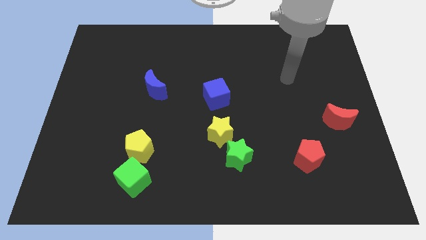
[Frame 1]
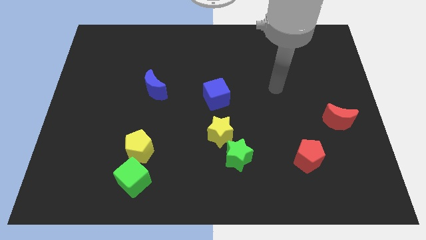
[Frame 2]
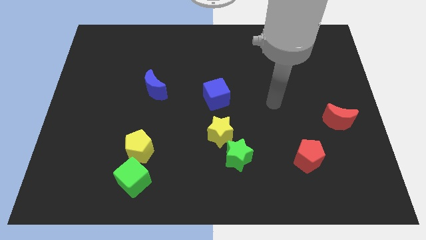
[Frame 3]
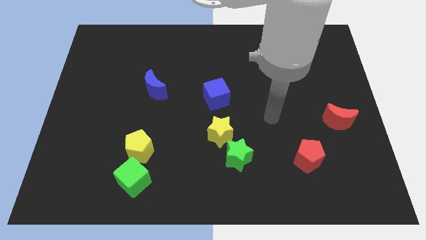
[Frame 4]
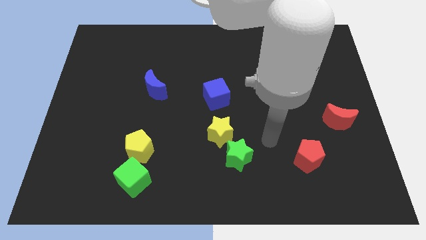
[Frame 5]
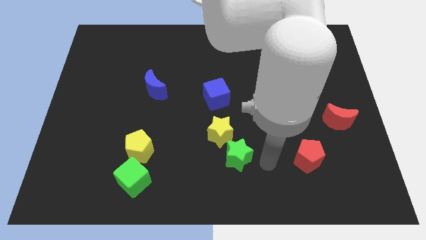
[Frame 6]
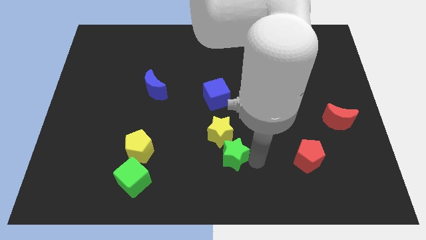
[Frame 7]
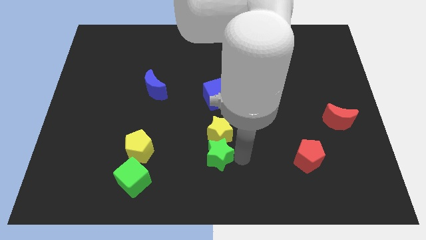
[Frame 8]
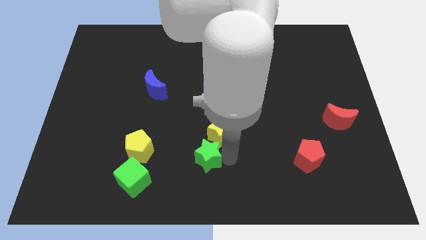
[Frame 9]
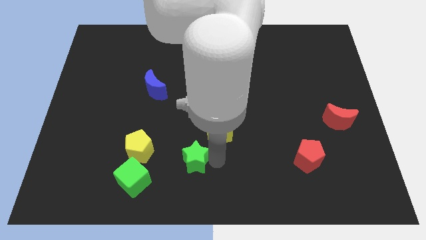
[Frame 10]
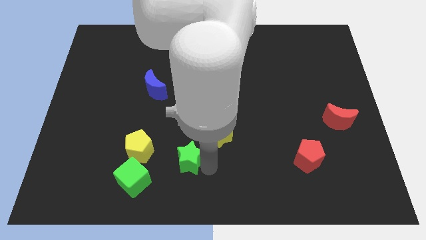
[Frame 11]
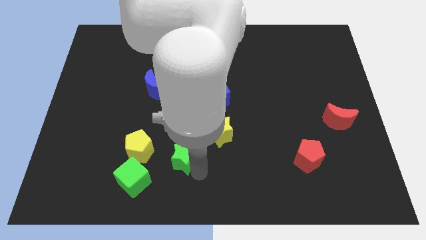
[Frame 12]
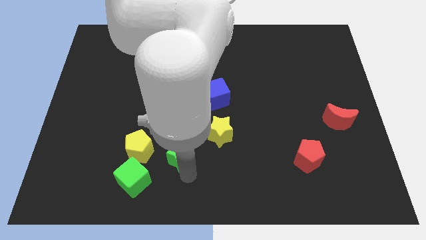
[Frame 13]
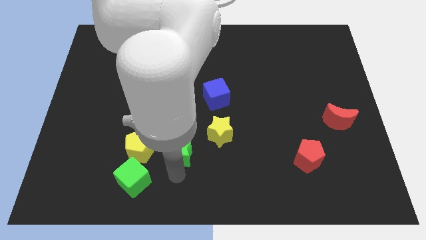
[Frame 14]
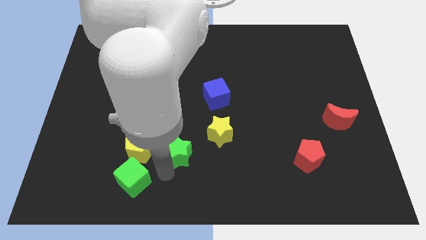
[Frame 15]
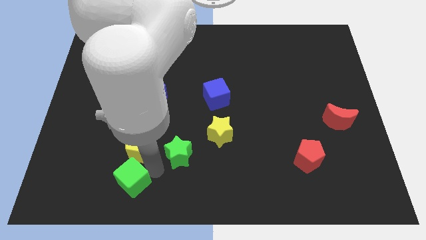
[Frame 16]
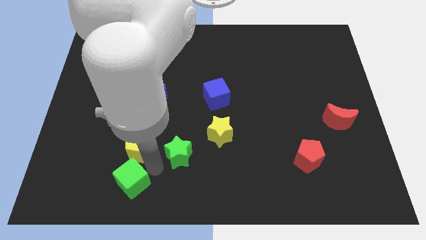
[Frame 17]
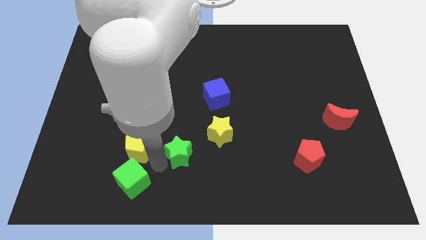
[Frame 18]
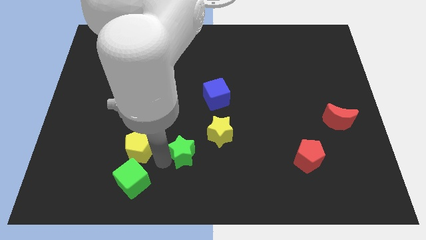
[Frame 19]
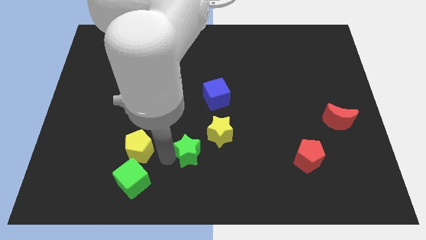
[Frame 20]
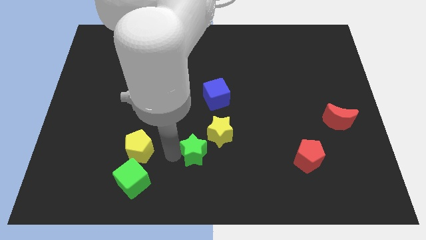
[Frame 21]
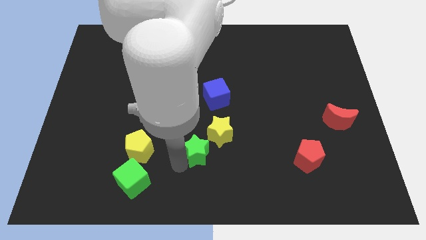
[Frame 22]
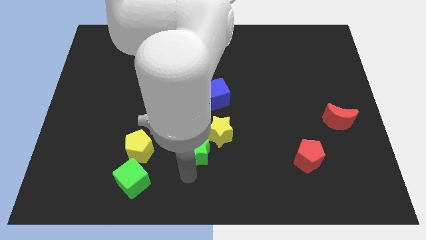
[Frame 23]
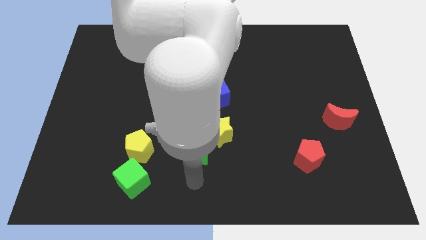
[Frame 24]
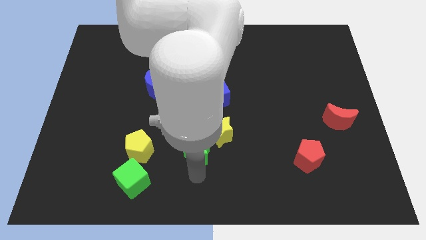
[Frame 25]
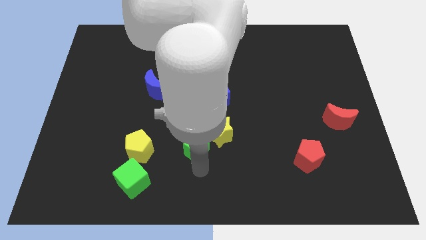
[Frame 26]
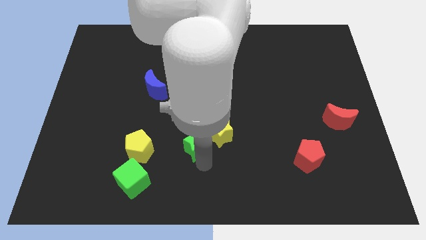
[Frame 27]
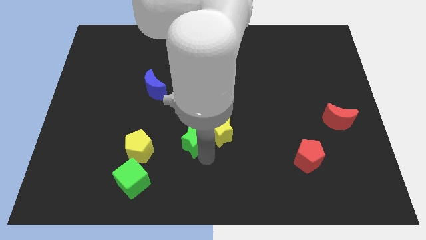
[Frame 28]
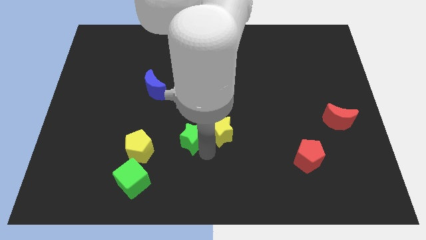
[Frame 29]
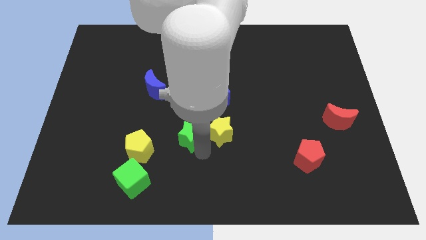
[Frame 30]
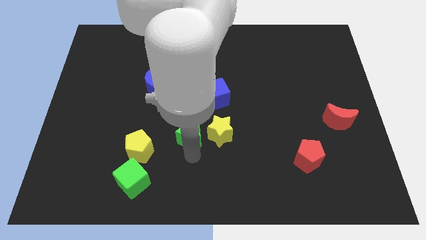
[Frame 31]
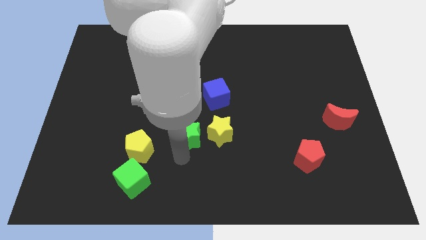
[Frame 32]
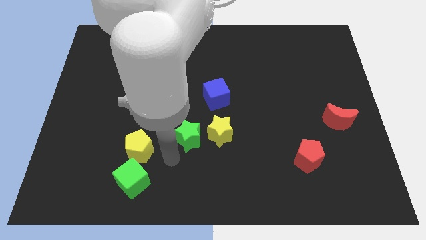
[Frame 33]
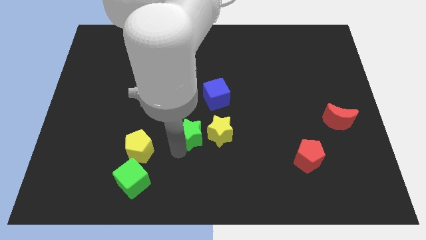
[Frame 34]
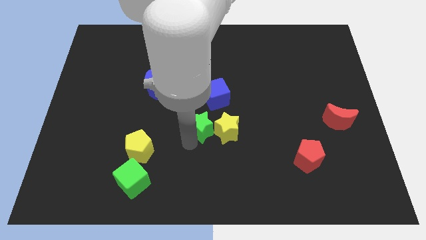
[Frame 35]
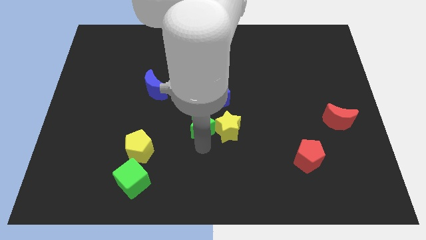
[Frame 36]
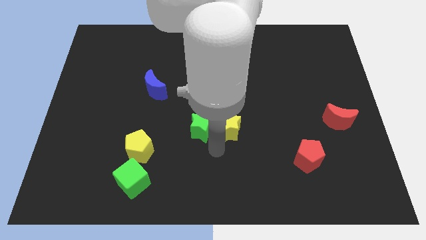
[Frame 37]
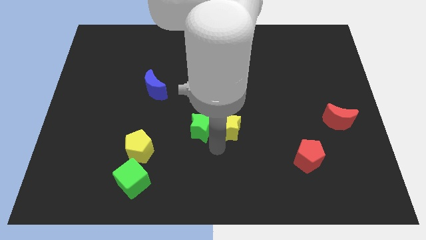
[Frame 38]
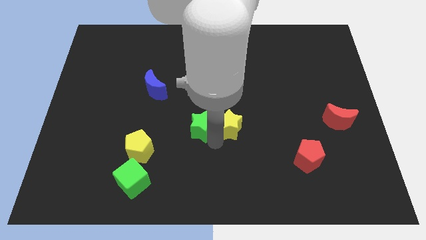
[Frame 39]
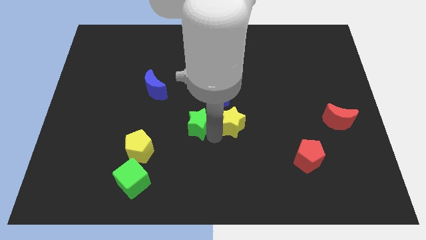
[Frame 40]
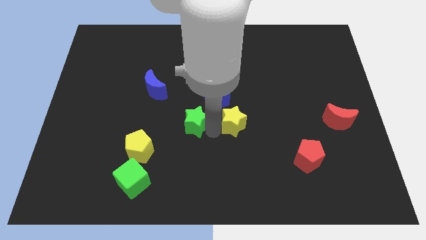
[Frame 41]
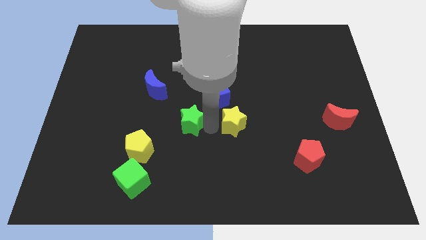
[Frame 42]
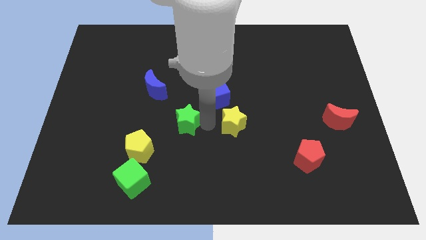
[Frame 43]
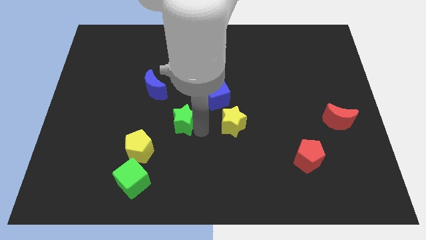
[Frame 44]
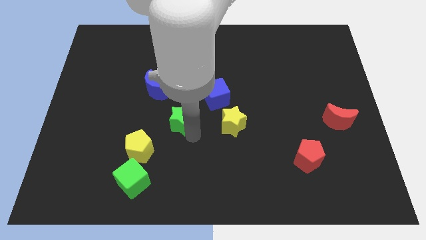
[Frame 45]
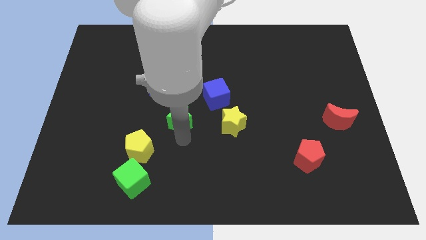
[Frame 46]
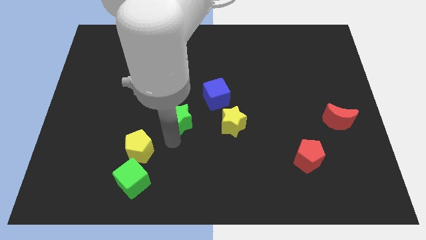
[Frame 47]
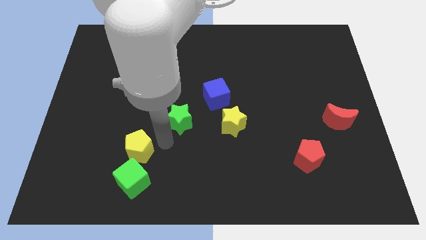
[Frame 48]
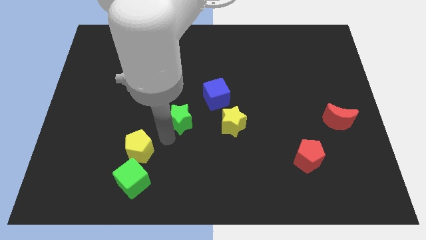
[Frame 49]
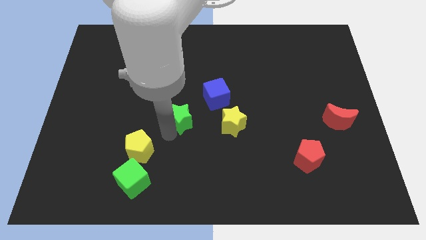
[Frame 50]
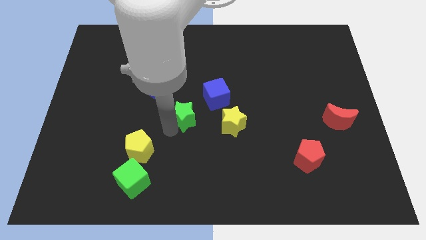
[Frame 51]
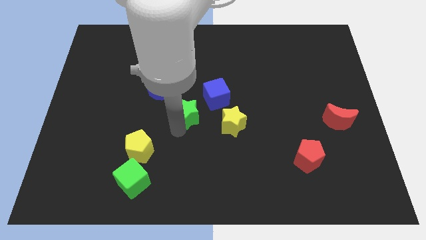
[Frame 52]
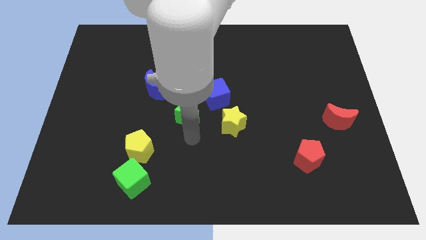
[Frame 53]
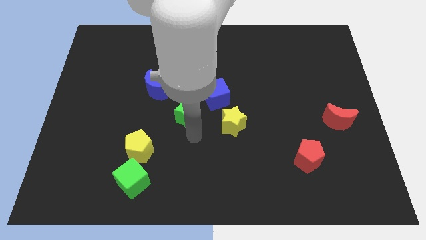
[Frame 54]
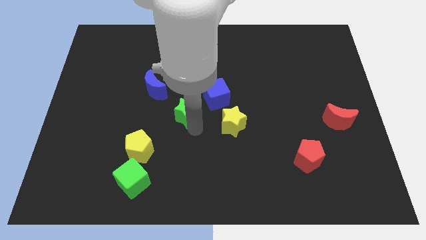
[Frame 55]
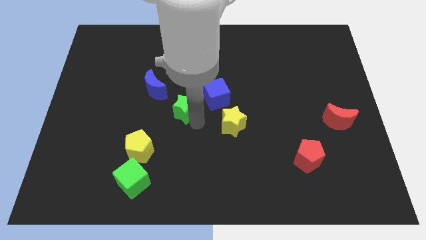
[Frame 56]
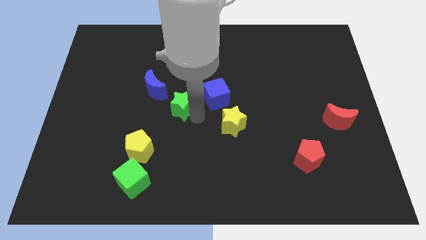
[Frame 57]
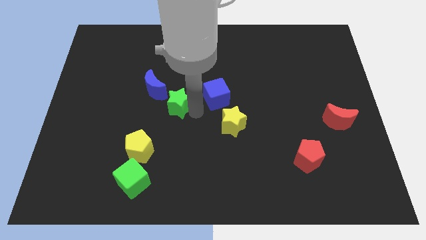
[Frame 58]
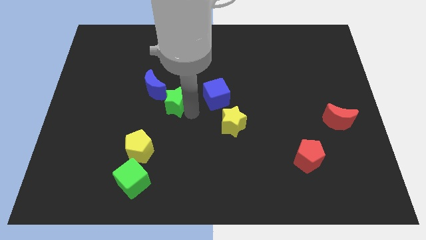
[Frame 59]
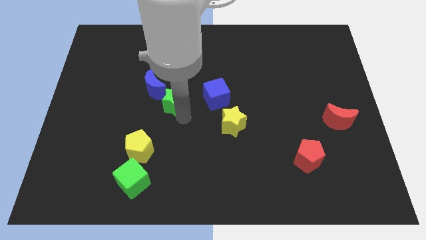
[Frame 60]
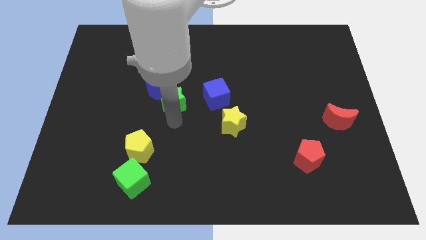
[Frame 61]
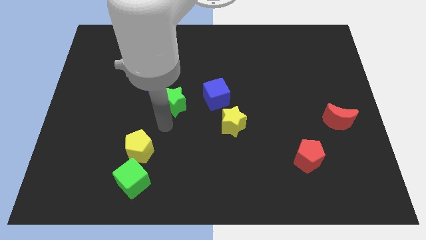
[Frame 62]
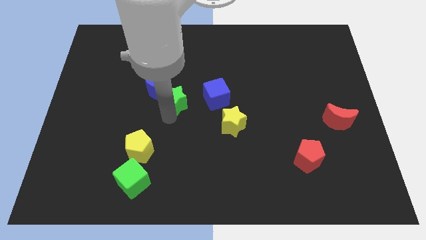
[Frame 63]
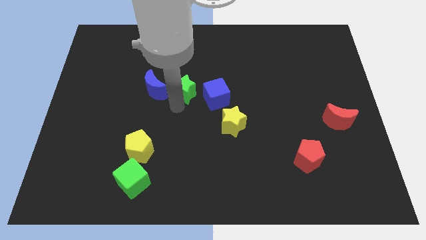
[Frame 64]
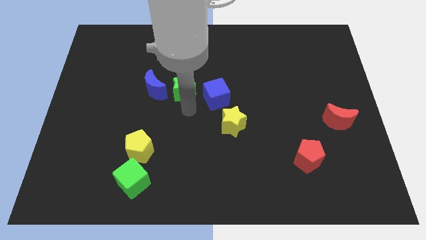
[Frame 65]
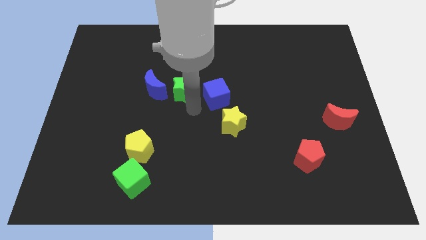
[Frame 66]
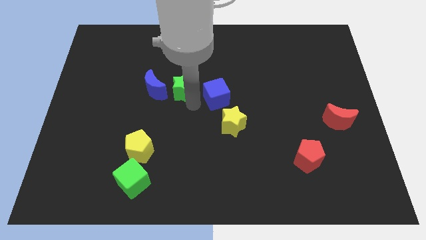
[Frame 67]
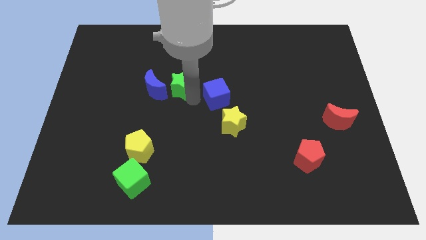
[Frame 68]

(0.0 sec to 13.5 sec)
push the green star diagonally up and to the right of the blue moon

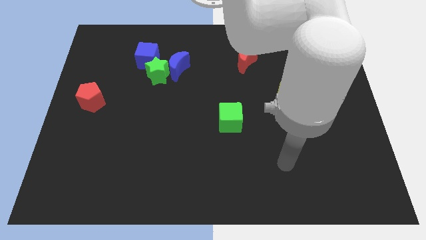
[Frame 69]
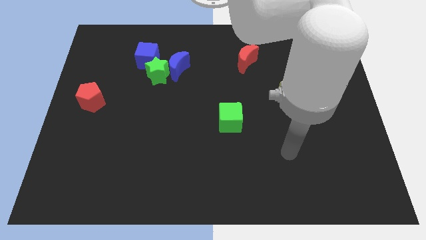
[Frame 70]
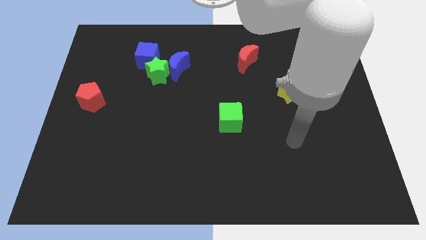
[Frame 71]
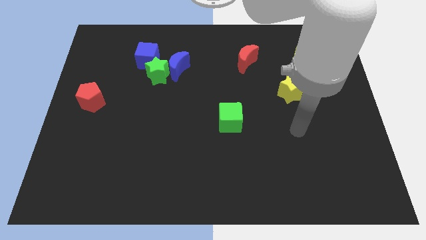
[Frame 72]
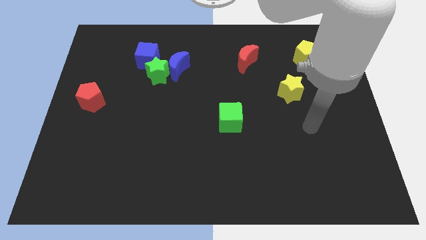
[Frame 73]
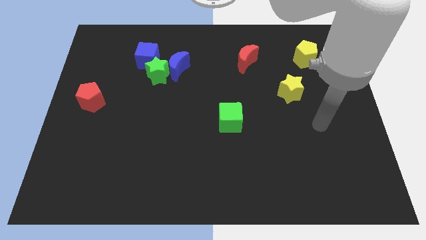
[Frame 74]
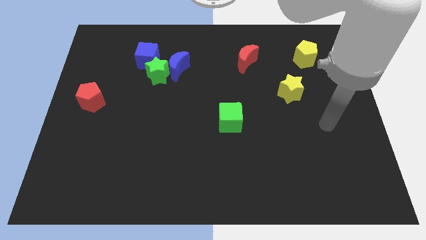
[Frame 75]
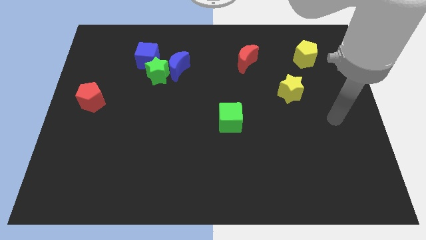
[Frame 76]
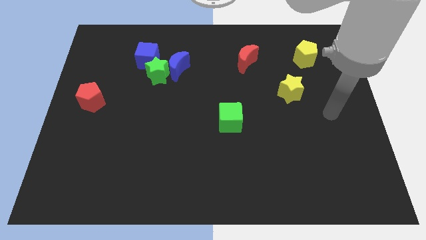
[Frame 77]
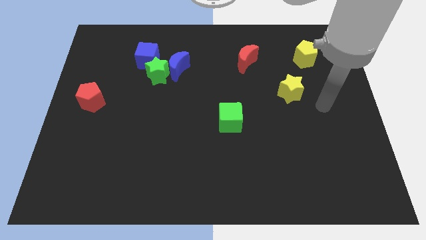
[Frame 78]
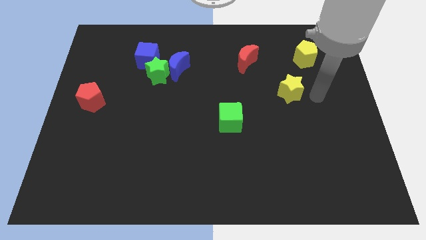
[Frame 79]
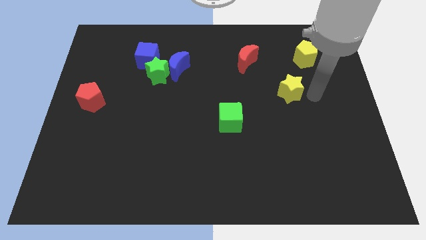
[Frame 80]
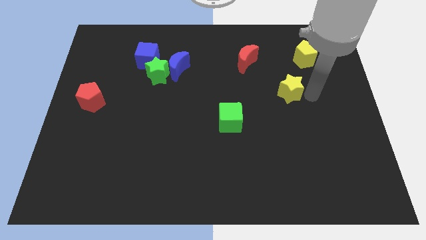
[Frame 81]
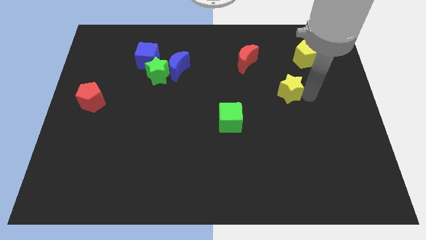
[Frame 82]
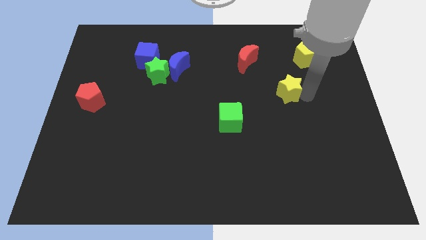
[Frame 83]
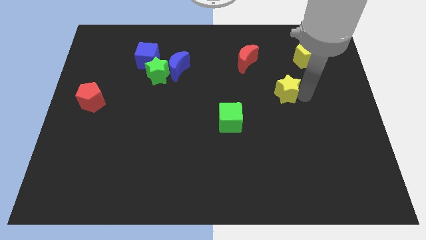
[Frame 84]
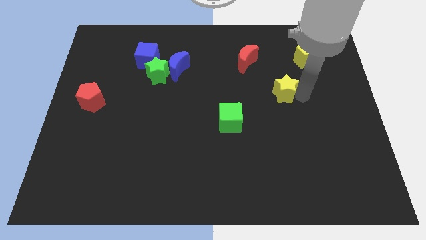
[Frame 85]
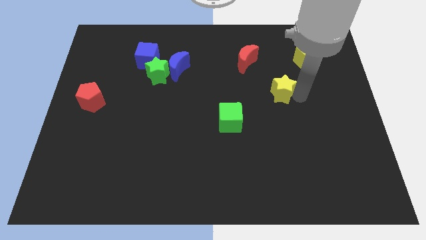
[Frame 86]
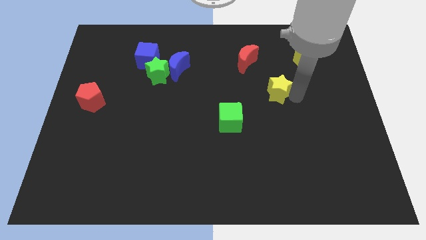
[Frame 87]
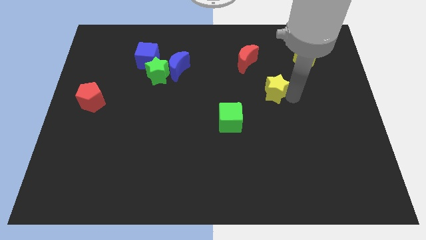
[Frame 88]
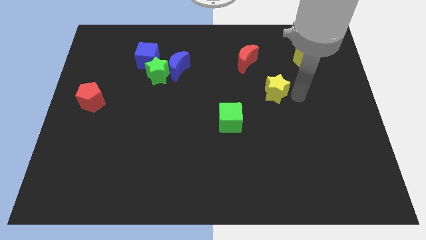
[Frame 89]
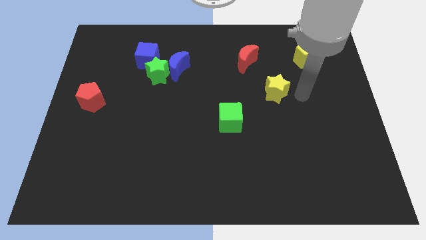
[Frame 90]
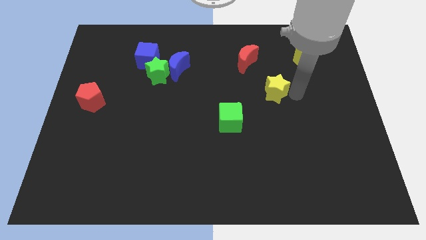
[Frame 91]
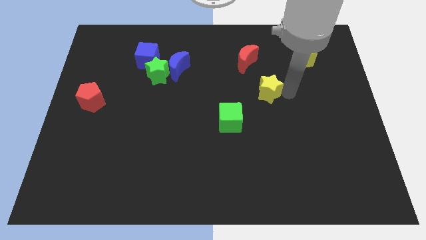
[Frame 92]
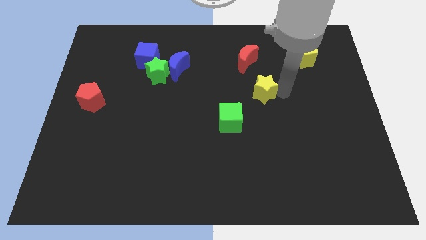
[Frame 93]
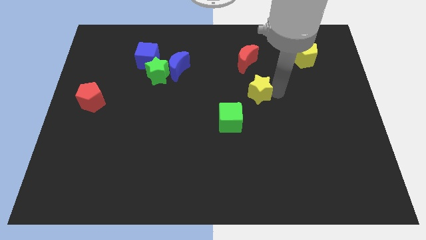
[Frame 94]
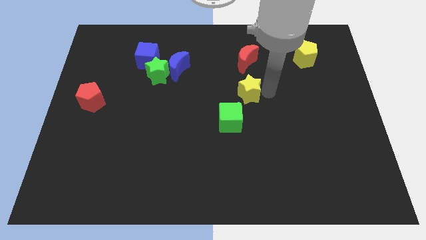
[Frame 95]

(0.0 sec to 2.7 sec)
push the yellow star to the top side of the green cube
